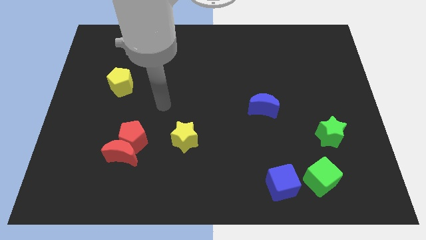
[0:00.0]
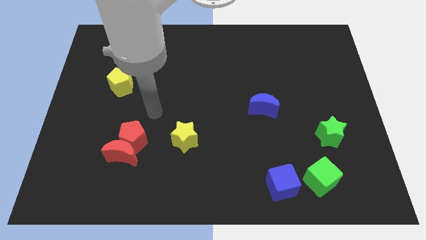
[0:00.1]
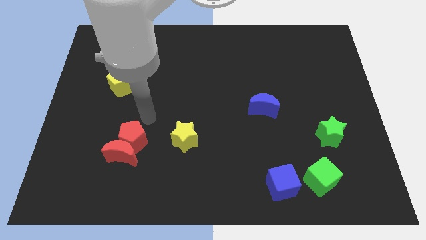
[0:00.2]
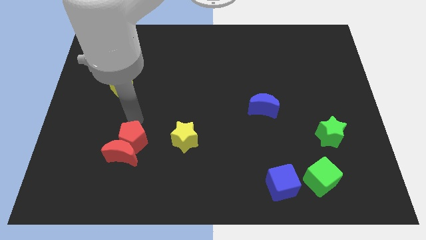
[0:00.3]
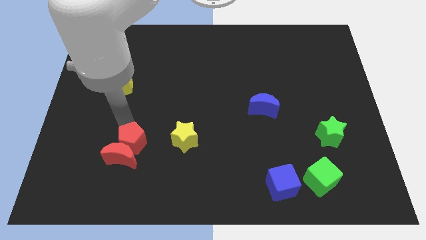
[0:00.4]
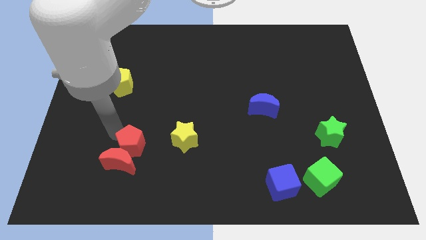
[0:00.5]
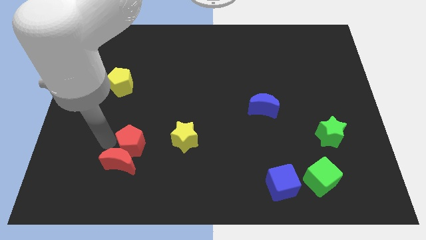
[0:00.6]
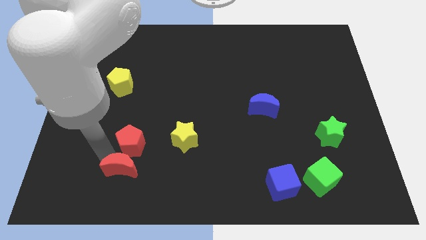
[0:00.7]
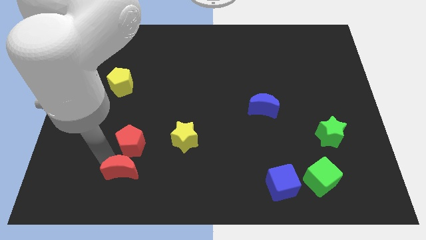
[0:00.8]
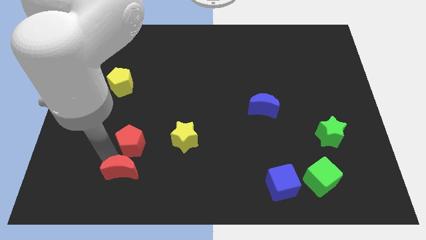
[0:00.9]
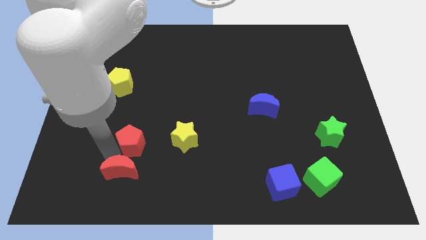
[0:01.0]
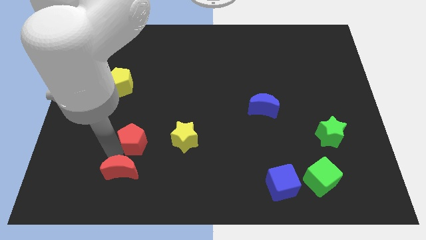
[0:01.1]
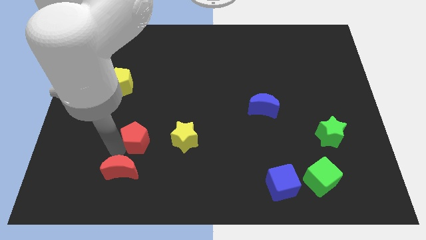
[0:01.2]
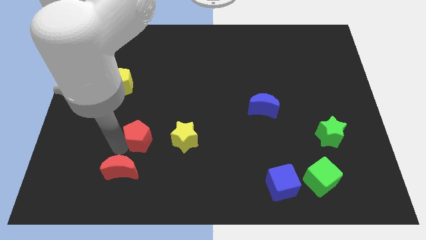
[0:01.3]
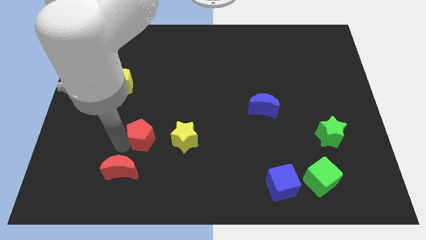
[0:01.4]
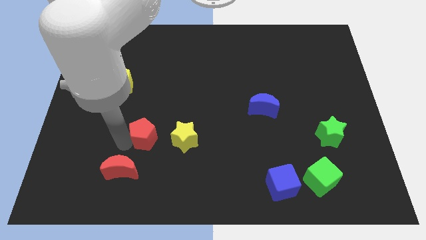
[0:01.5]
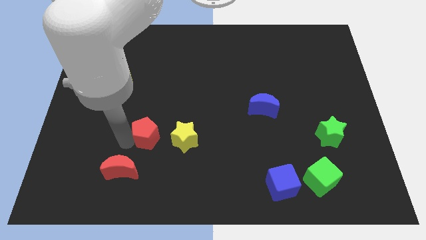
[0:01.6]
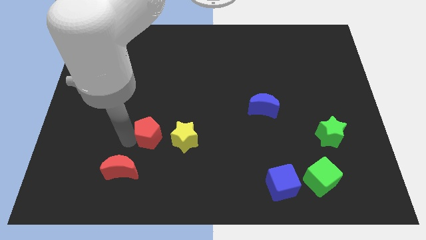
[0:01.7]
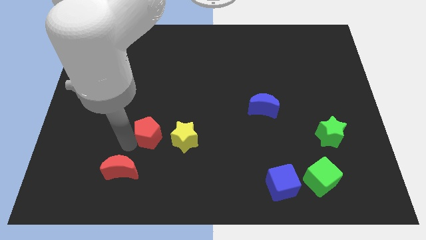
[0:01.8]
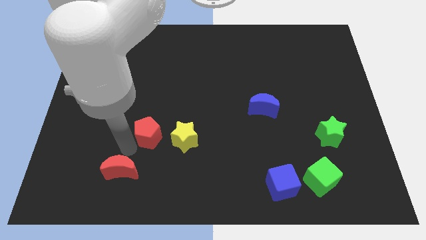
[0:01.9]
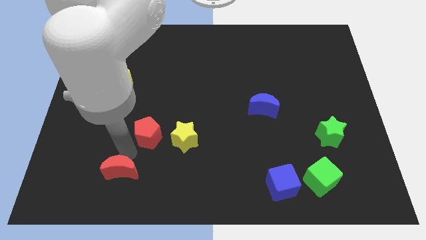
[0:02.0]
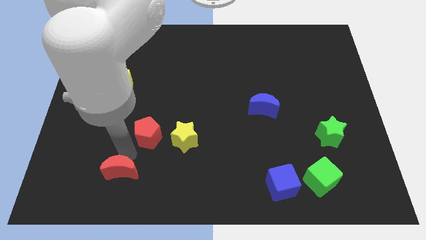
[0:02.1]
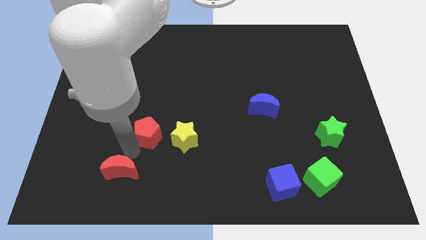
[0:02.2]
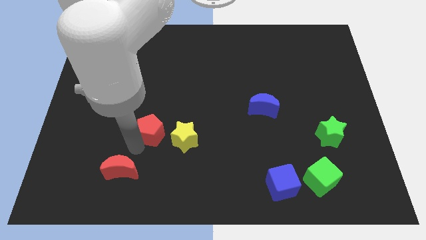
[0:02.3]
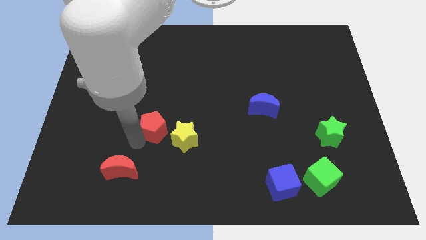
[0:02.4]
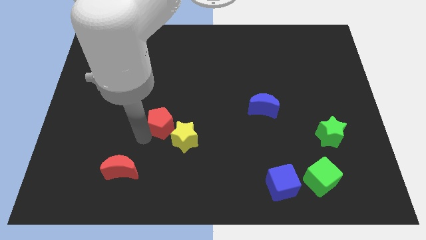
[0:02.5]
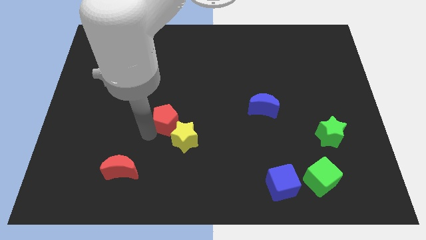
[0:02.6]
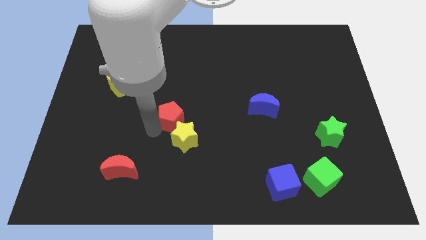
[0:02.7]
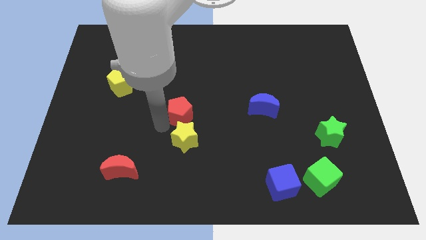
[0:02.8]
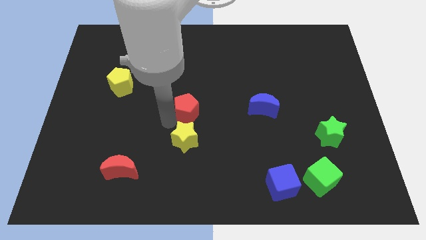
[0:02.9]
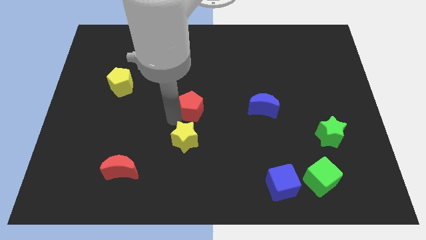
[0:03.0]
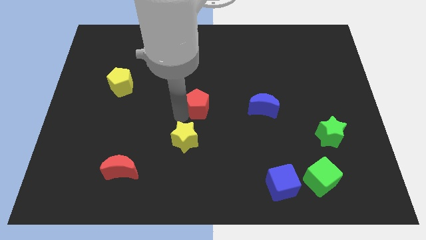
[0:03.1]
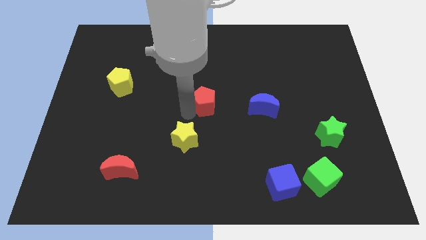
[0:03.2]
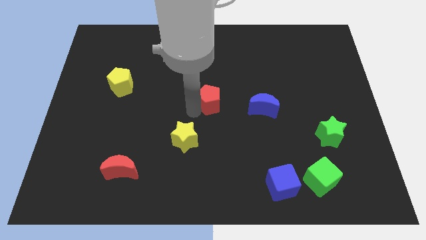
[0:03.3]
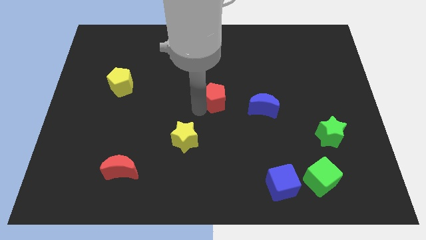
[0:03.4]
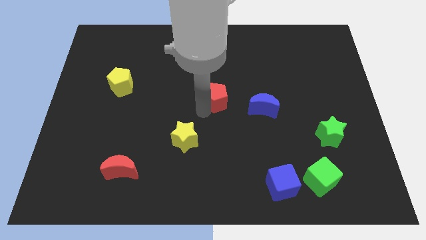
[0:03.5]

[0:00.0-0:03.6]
slide the red pentagon upwards and to the right diagonally

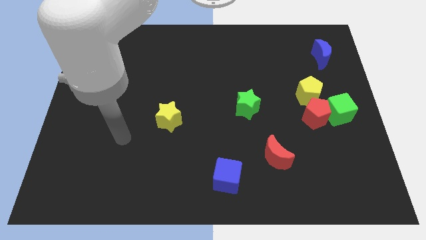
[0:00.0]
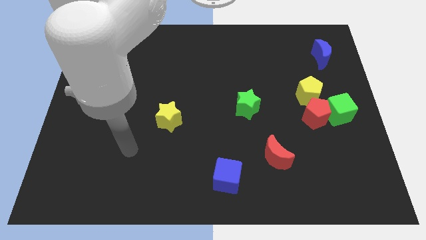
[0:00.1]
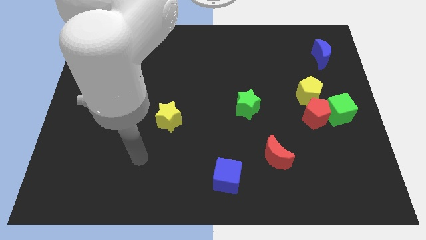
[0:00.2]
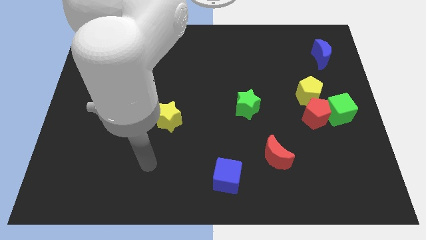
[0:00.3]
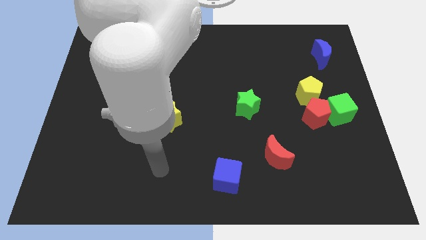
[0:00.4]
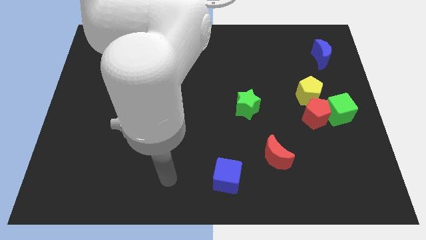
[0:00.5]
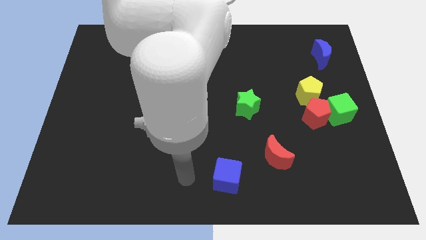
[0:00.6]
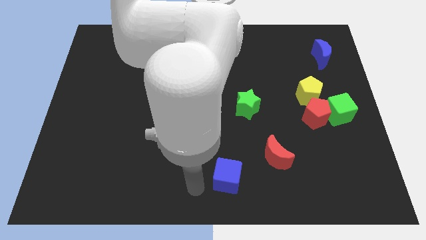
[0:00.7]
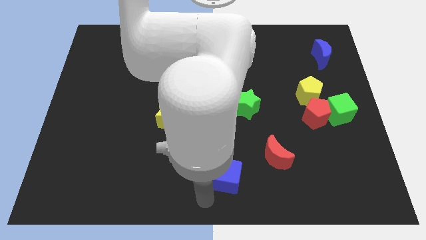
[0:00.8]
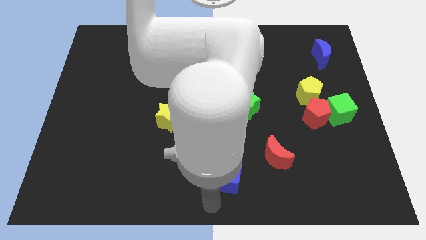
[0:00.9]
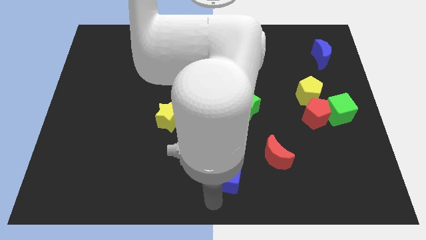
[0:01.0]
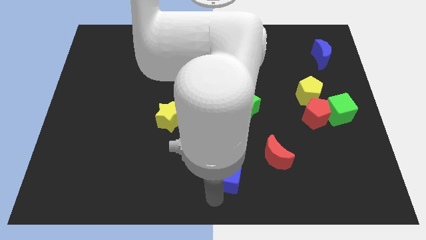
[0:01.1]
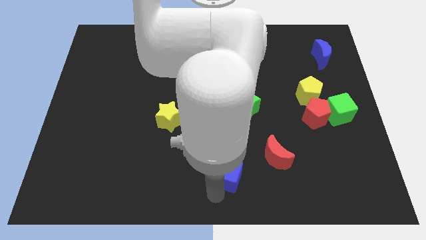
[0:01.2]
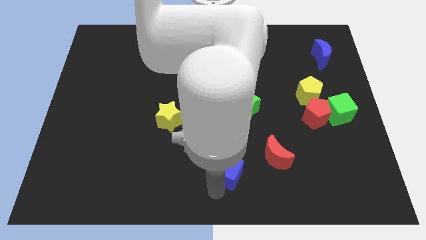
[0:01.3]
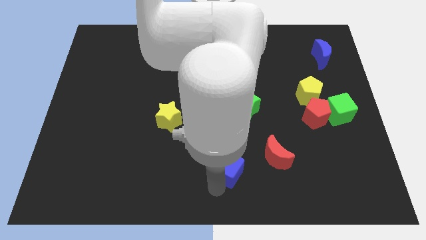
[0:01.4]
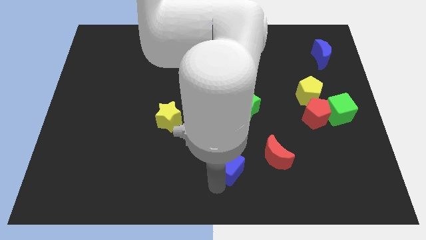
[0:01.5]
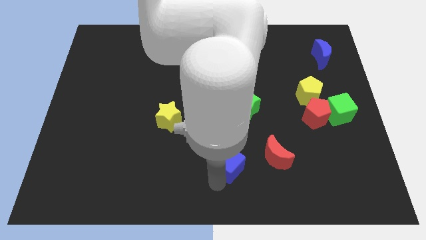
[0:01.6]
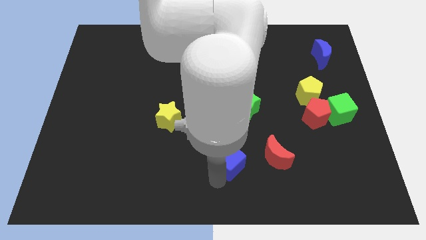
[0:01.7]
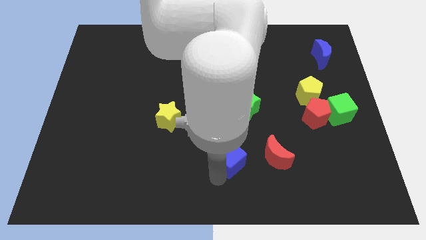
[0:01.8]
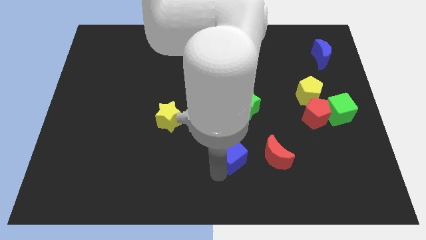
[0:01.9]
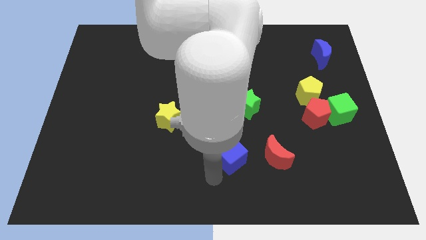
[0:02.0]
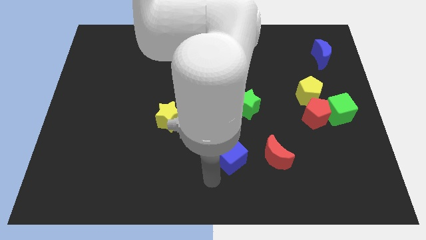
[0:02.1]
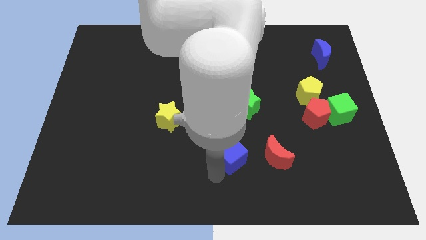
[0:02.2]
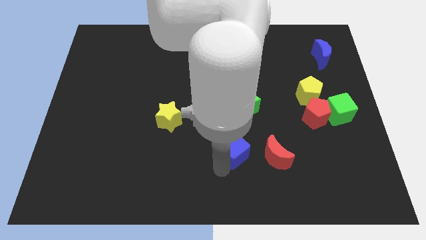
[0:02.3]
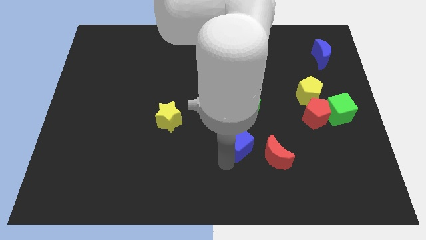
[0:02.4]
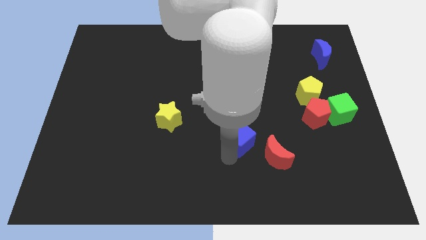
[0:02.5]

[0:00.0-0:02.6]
slightly push the blue cube up and to the right

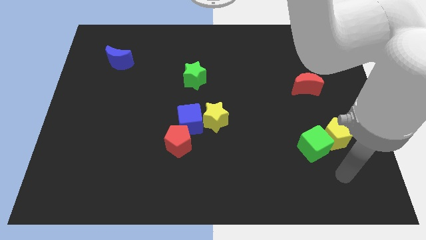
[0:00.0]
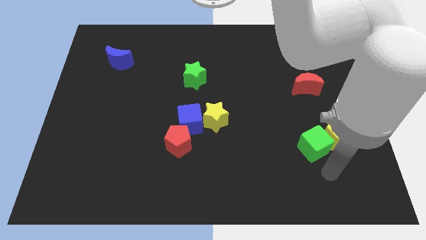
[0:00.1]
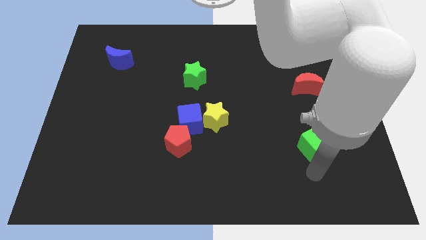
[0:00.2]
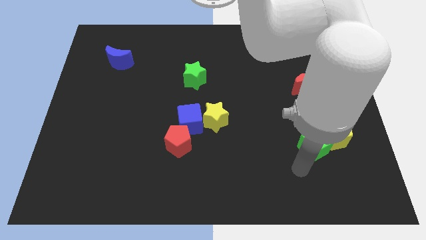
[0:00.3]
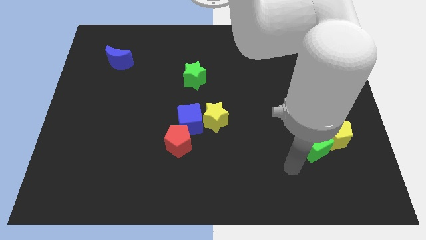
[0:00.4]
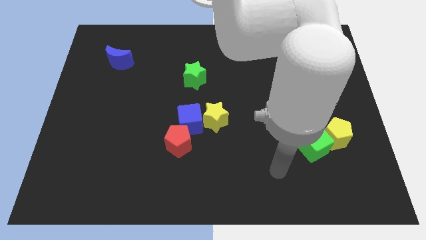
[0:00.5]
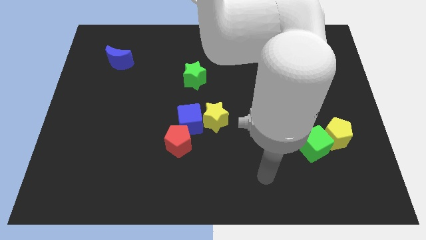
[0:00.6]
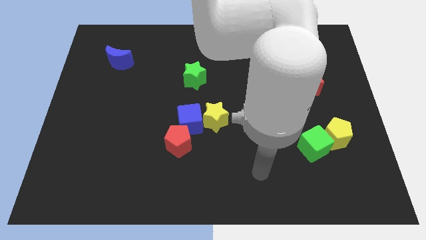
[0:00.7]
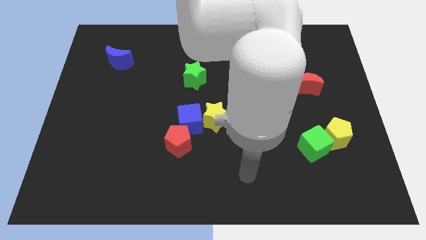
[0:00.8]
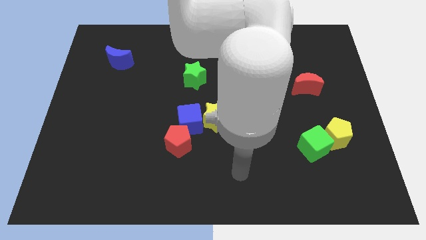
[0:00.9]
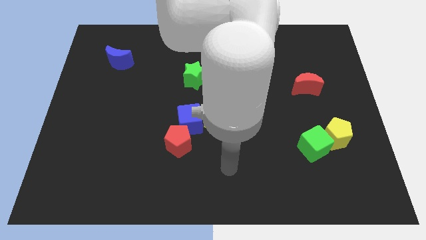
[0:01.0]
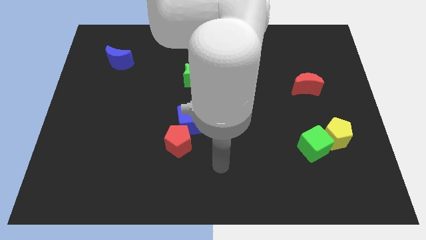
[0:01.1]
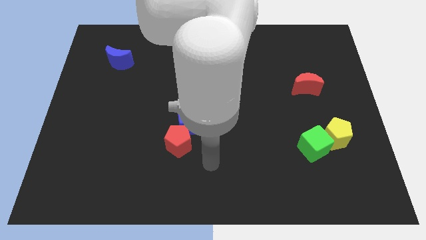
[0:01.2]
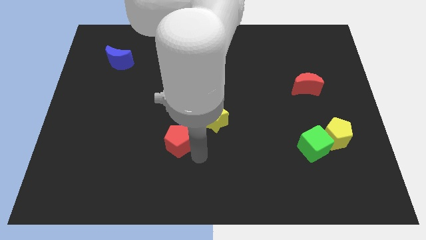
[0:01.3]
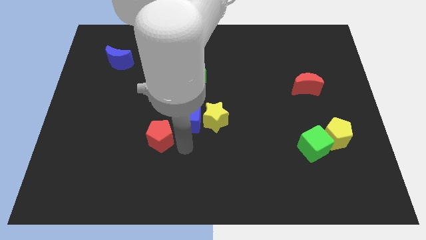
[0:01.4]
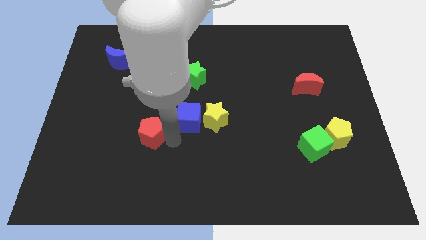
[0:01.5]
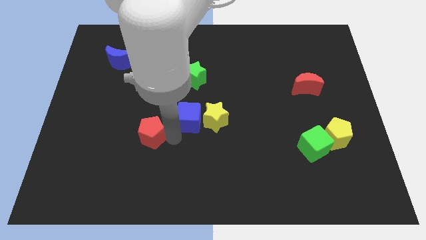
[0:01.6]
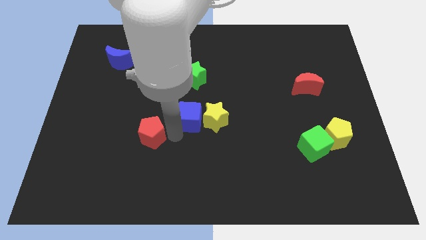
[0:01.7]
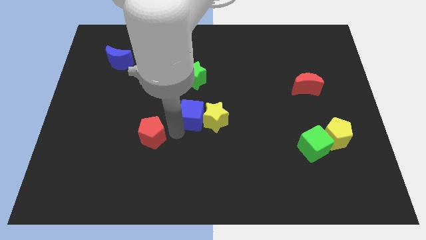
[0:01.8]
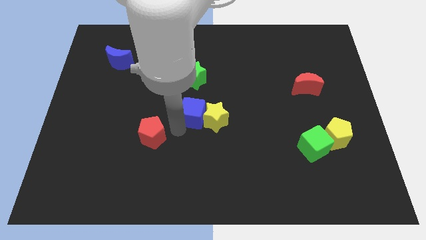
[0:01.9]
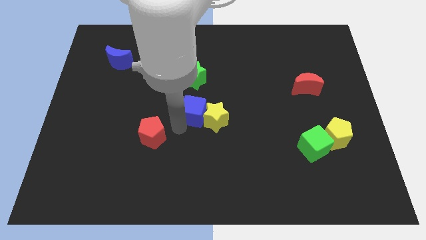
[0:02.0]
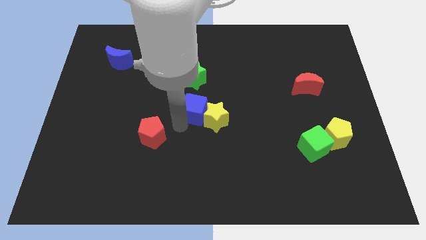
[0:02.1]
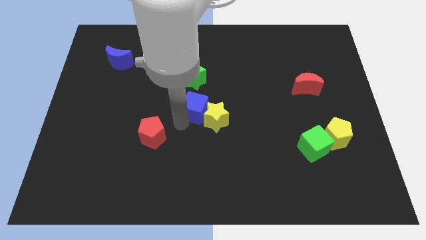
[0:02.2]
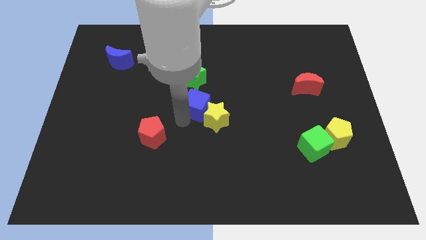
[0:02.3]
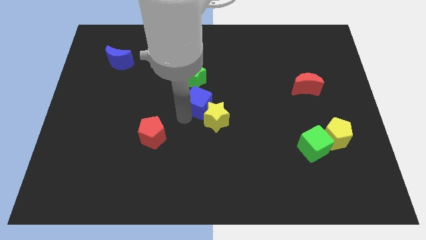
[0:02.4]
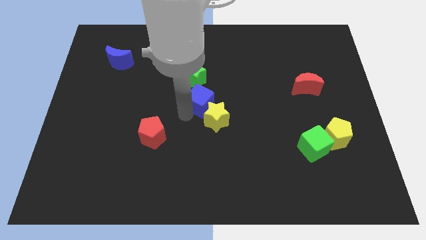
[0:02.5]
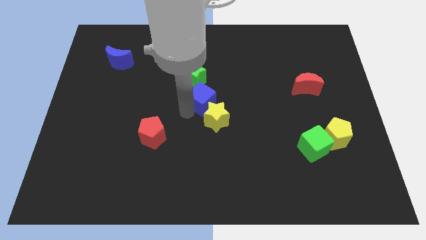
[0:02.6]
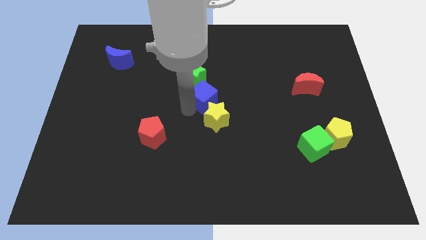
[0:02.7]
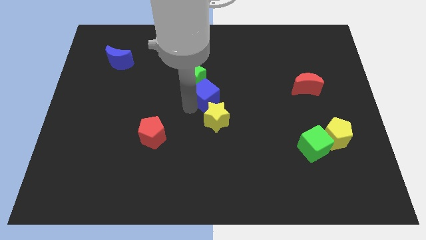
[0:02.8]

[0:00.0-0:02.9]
move the blue cube upwards and then to the right a little bit
